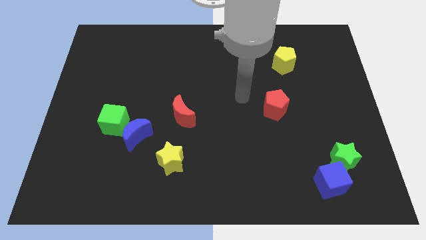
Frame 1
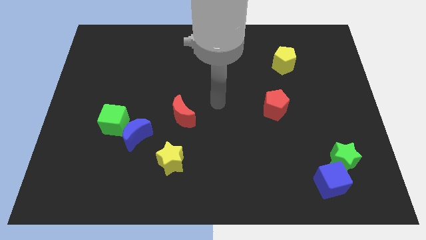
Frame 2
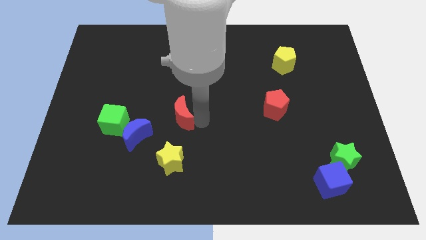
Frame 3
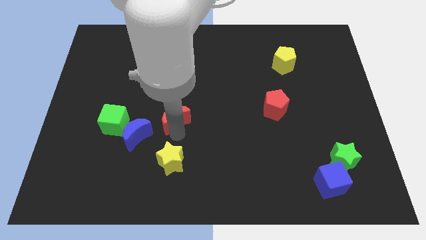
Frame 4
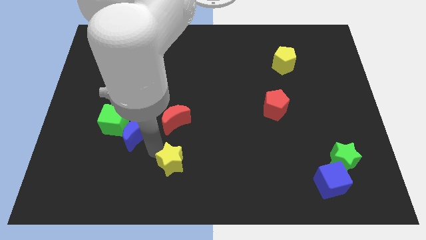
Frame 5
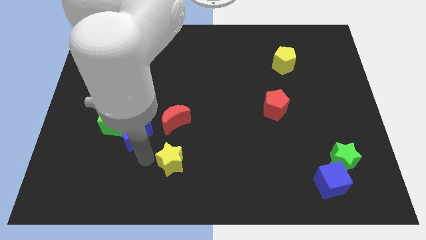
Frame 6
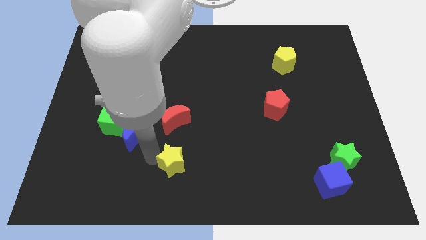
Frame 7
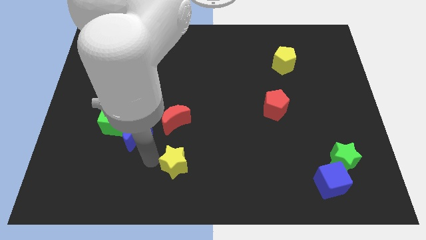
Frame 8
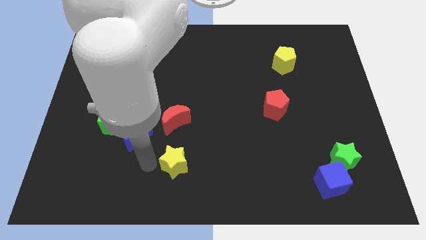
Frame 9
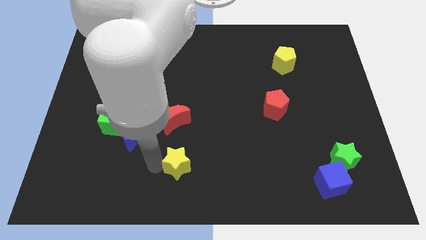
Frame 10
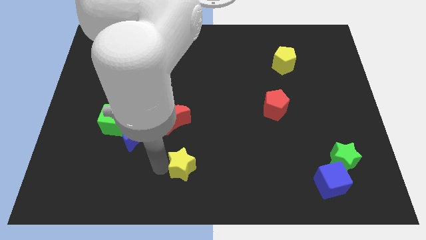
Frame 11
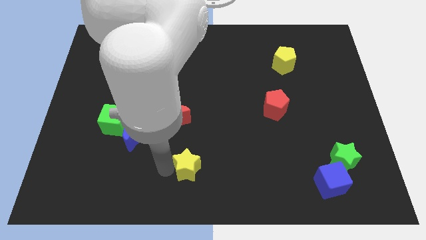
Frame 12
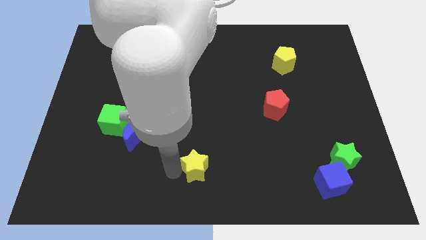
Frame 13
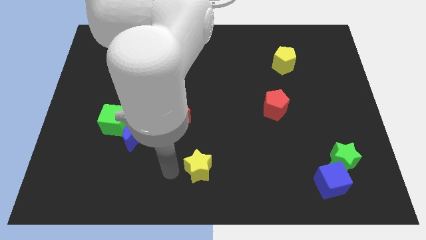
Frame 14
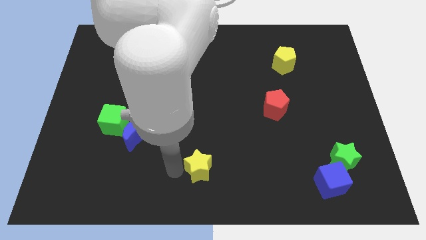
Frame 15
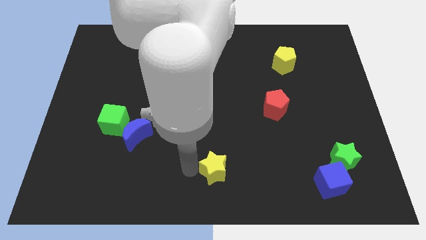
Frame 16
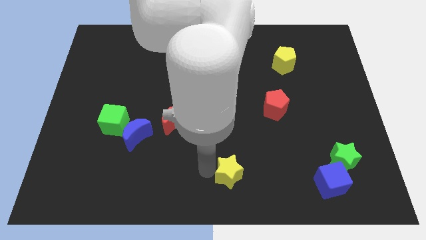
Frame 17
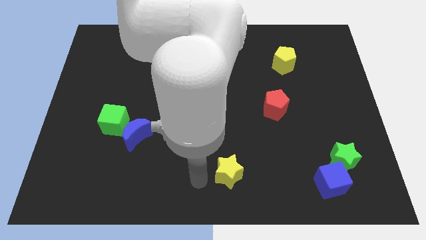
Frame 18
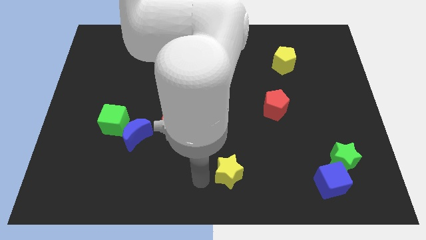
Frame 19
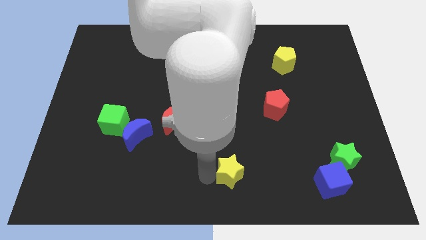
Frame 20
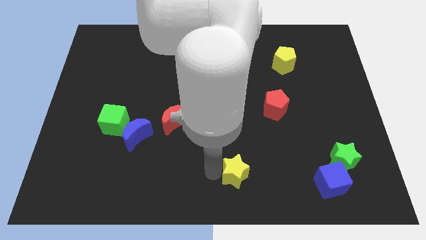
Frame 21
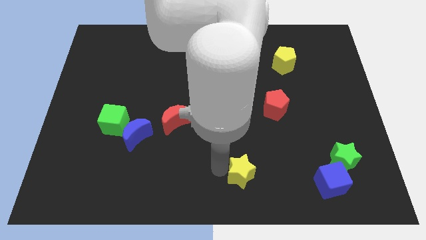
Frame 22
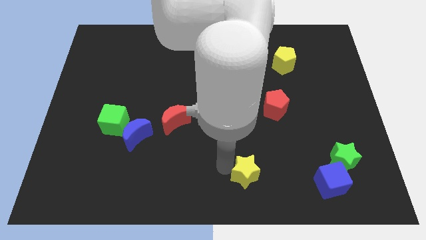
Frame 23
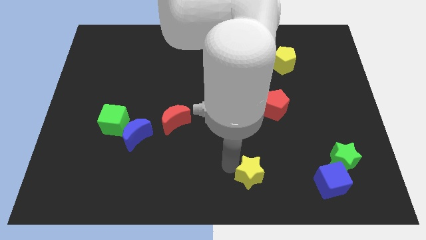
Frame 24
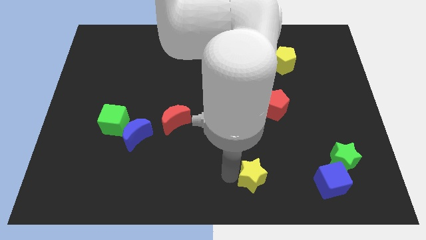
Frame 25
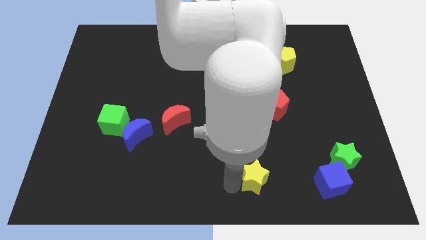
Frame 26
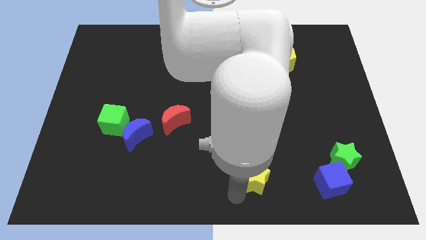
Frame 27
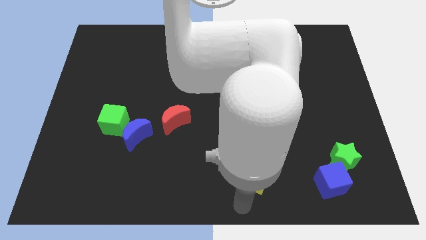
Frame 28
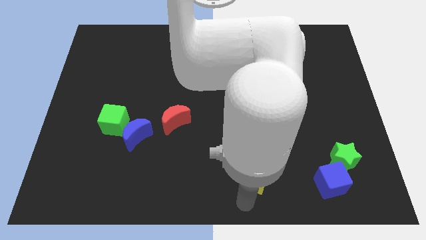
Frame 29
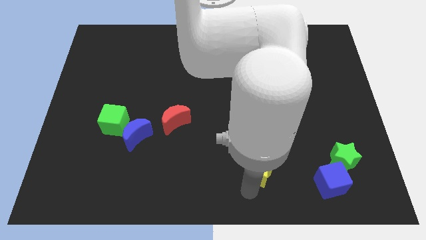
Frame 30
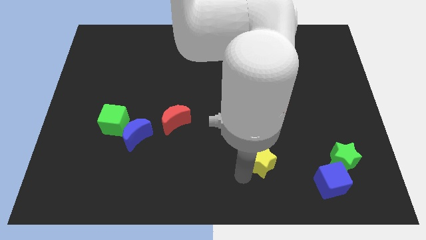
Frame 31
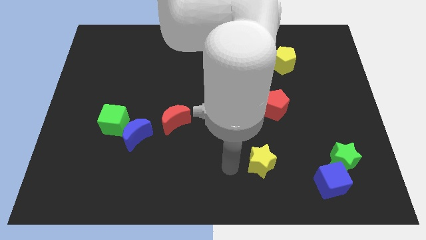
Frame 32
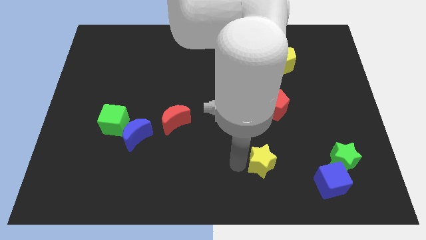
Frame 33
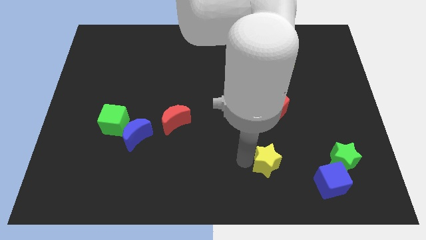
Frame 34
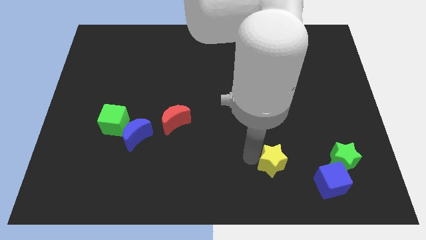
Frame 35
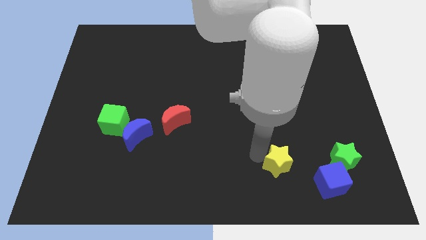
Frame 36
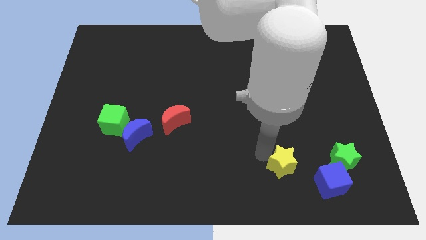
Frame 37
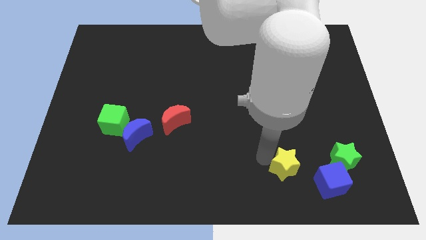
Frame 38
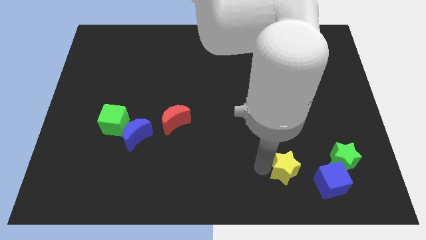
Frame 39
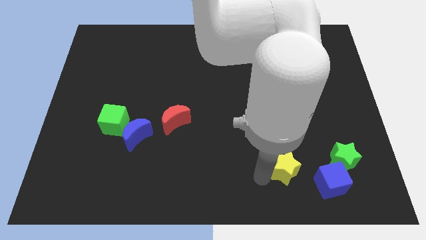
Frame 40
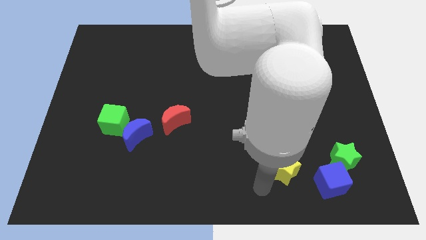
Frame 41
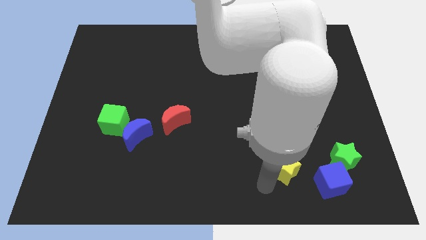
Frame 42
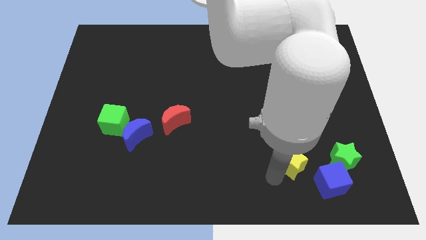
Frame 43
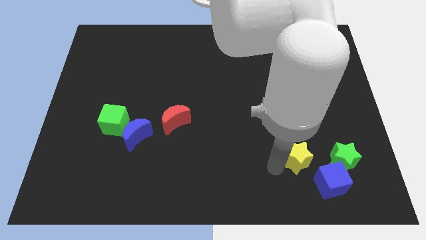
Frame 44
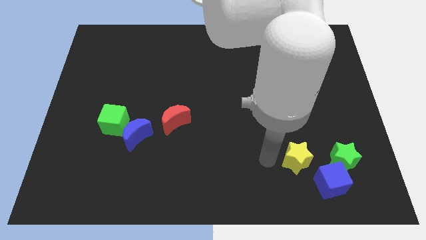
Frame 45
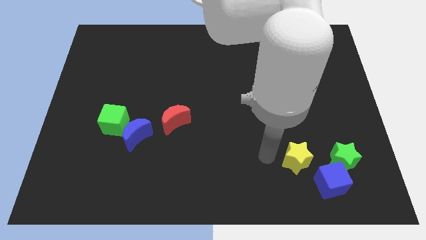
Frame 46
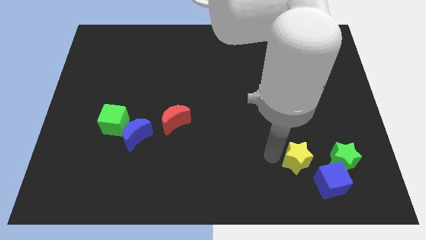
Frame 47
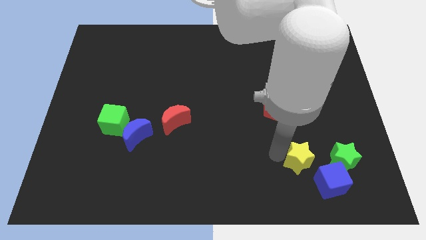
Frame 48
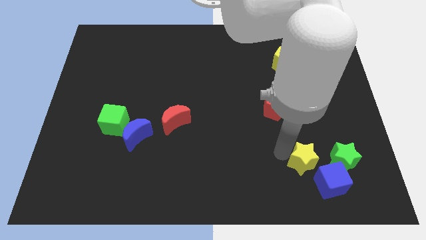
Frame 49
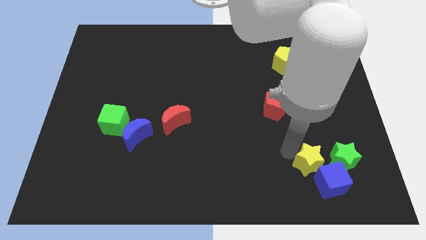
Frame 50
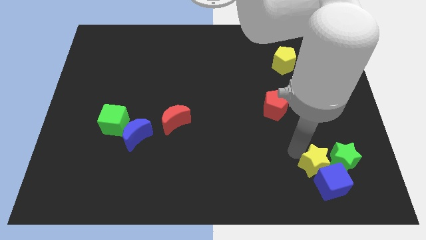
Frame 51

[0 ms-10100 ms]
put the yellow star towards the green star

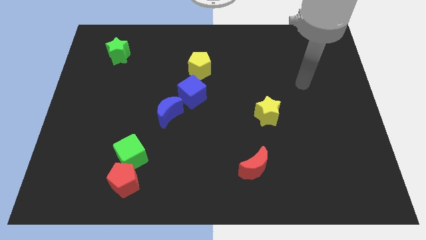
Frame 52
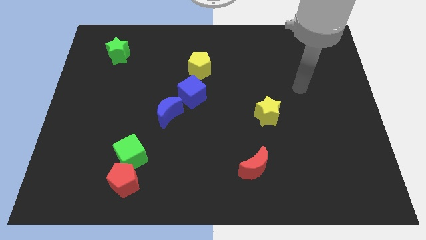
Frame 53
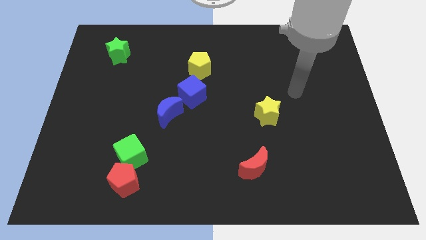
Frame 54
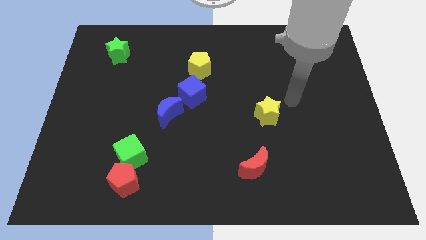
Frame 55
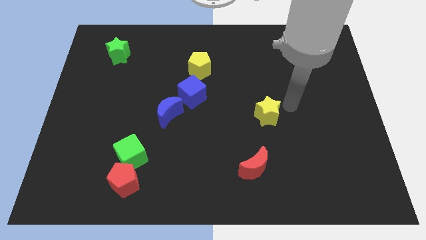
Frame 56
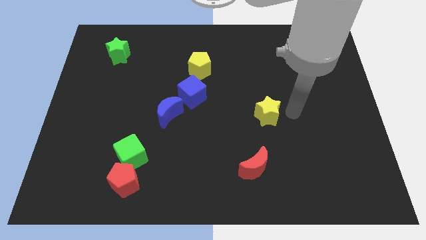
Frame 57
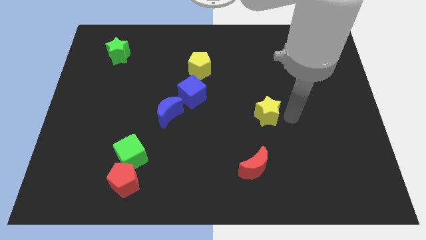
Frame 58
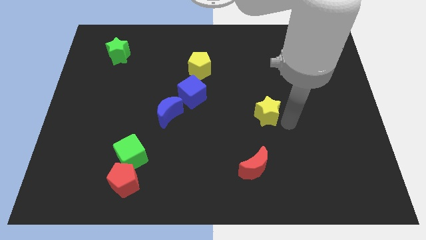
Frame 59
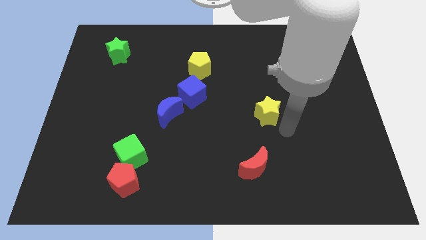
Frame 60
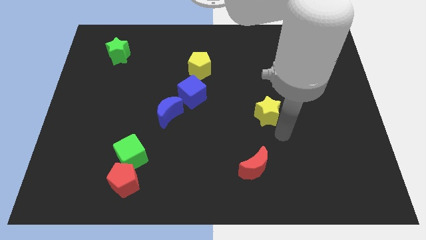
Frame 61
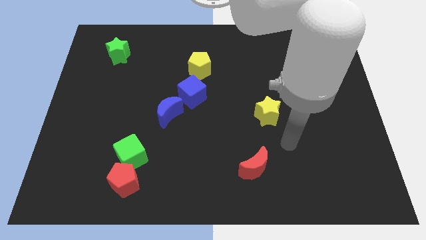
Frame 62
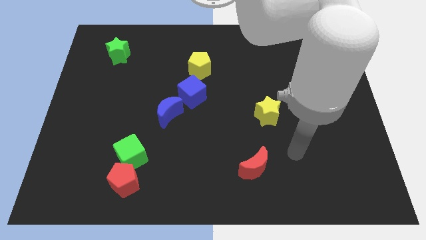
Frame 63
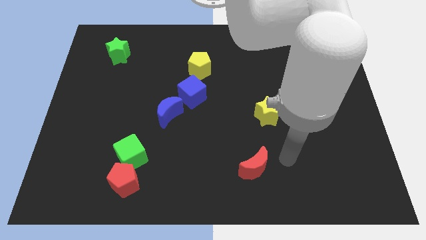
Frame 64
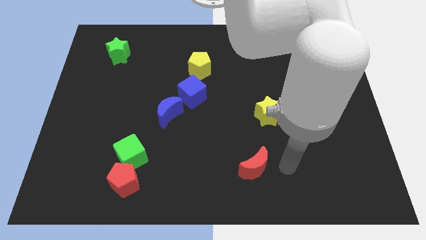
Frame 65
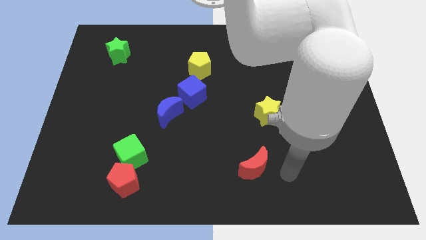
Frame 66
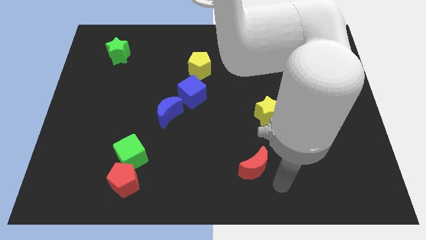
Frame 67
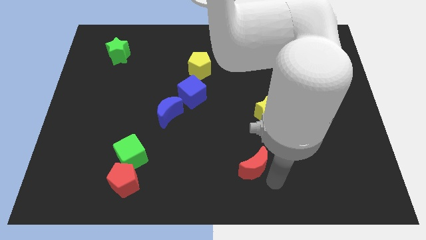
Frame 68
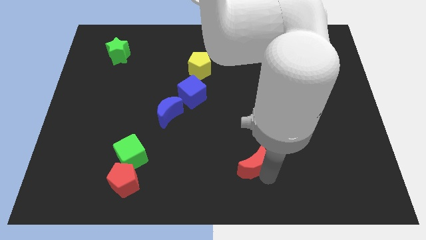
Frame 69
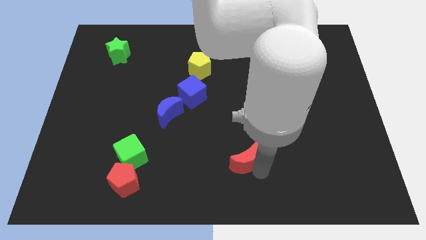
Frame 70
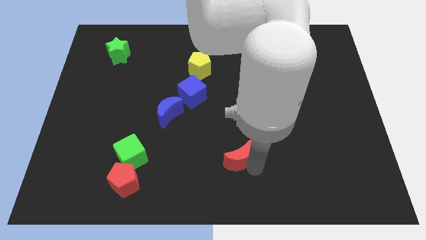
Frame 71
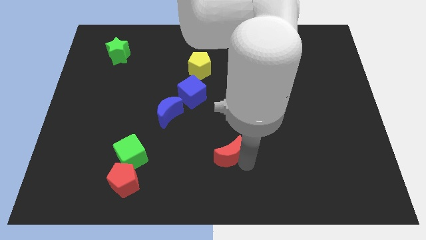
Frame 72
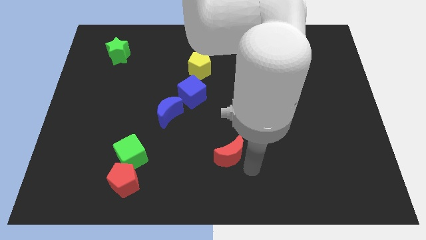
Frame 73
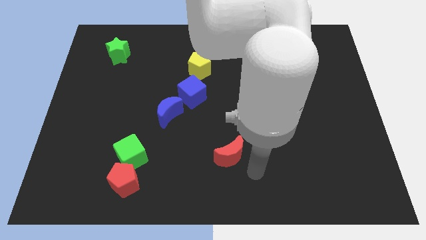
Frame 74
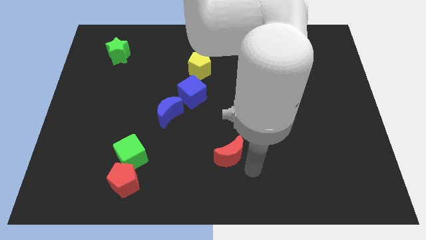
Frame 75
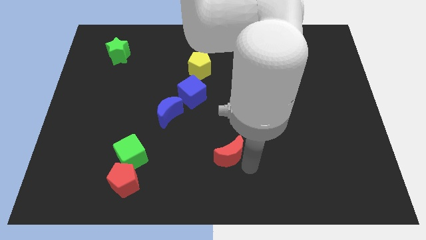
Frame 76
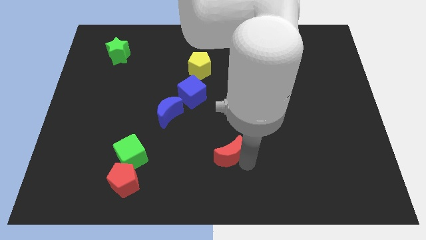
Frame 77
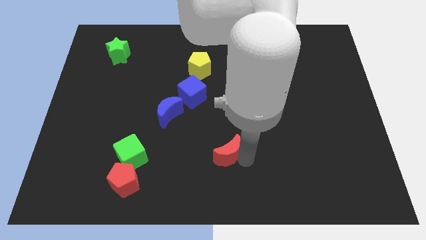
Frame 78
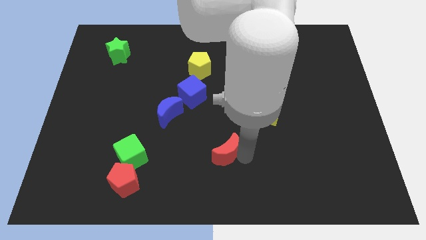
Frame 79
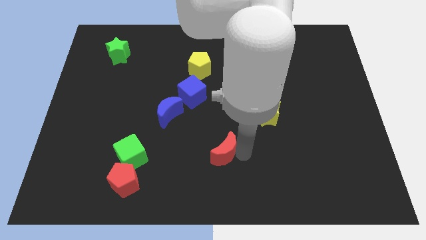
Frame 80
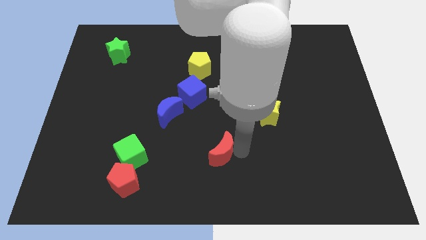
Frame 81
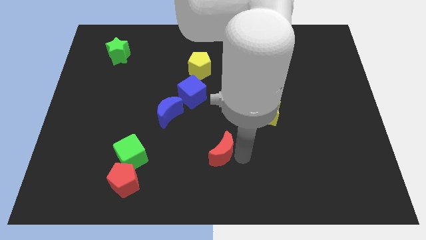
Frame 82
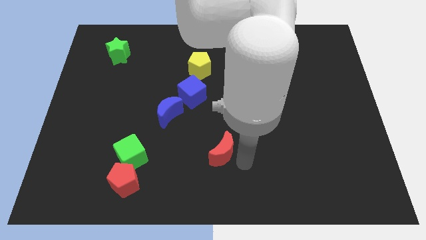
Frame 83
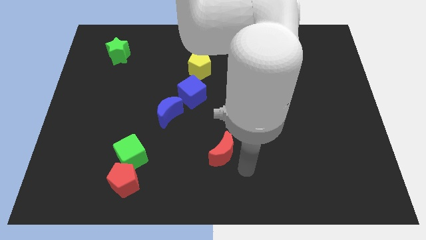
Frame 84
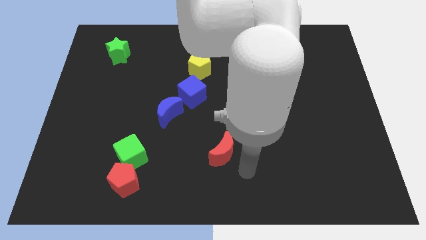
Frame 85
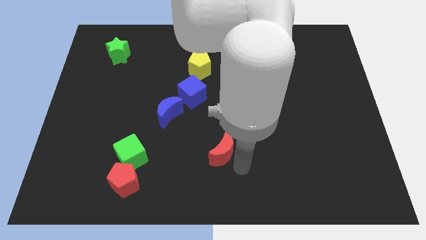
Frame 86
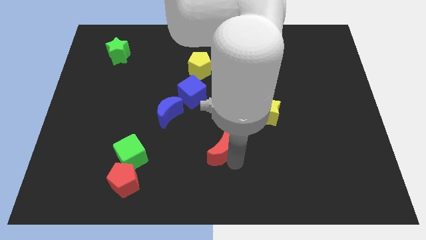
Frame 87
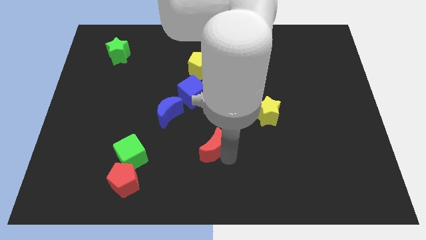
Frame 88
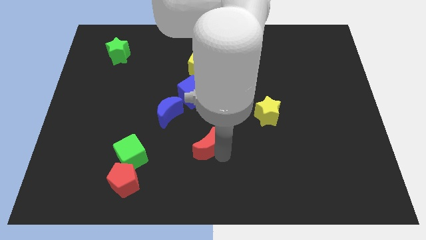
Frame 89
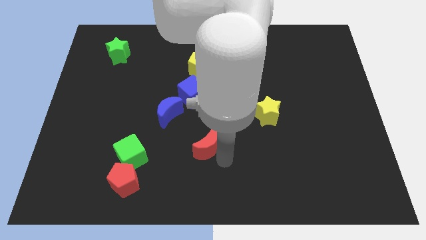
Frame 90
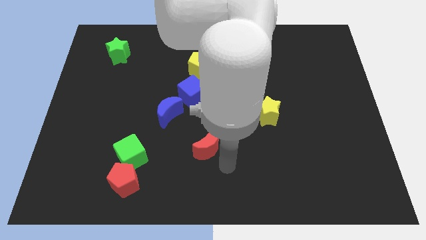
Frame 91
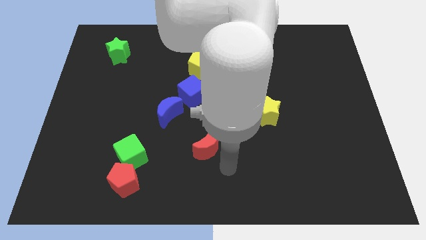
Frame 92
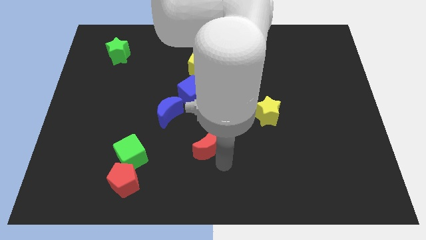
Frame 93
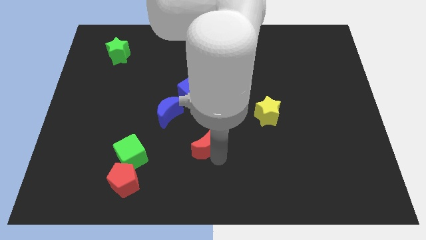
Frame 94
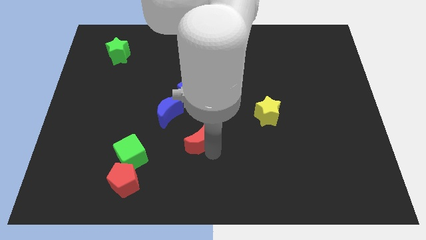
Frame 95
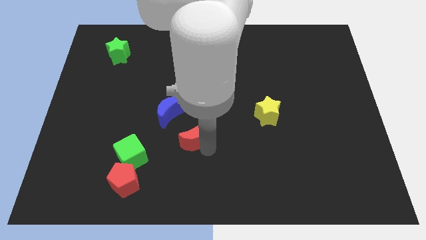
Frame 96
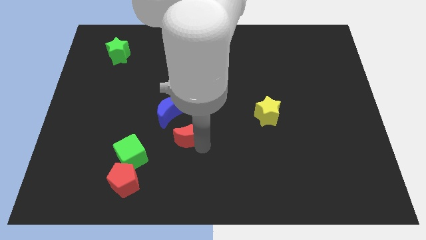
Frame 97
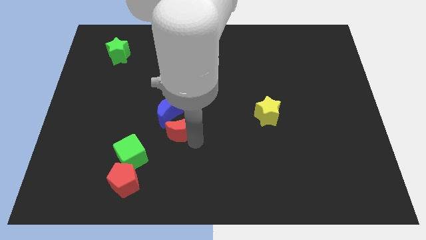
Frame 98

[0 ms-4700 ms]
slide the red moon to the blue moon
